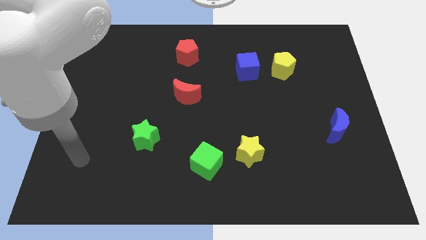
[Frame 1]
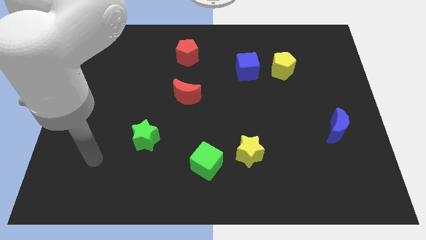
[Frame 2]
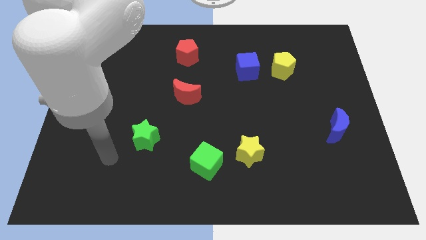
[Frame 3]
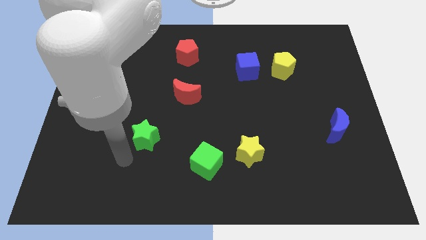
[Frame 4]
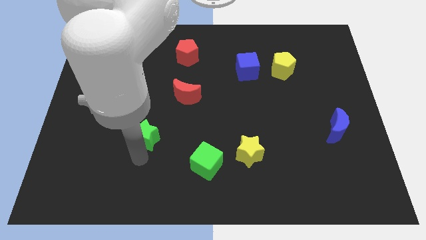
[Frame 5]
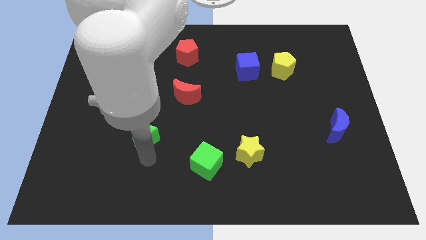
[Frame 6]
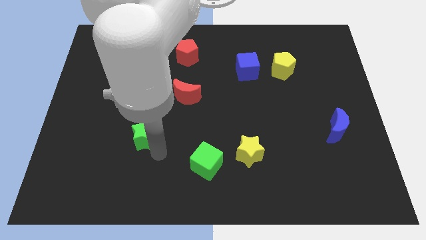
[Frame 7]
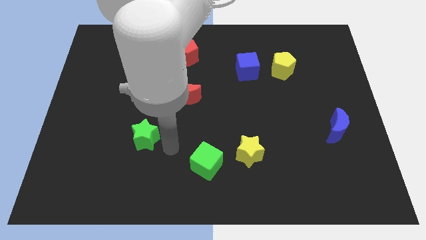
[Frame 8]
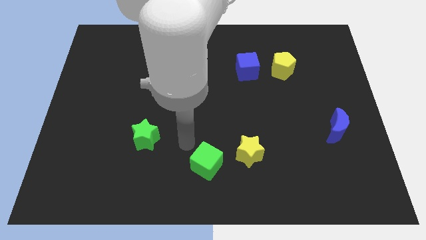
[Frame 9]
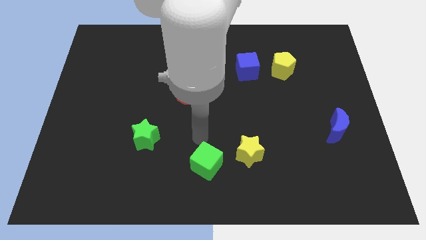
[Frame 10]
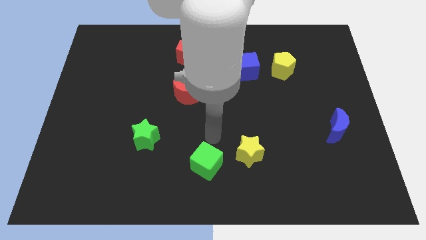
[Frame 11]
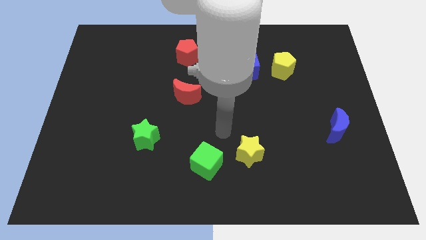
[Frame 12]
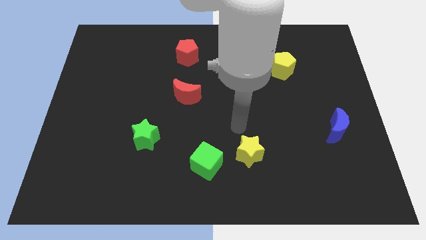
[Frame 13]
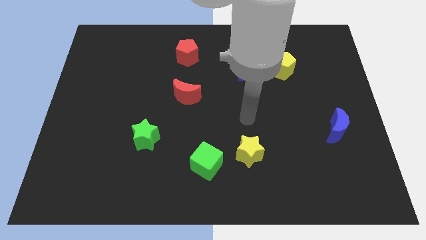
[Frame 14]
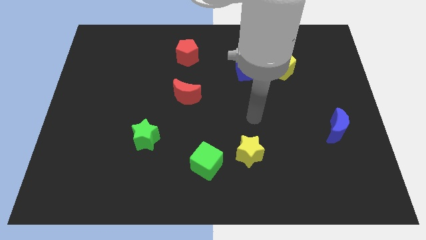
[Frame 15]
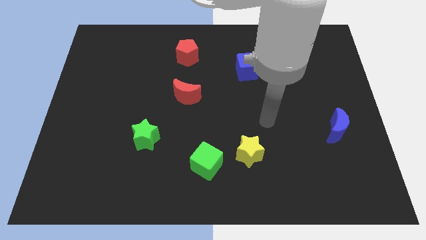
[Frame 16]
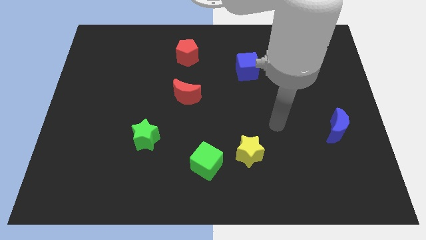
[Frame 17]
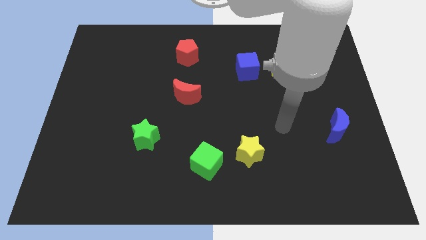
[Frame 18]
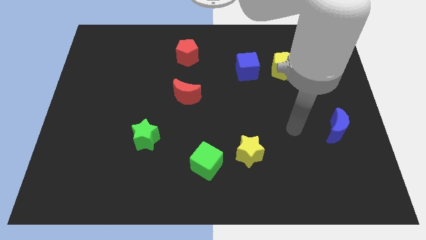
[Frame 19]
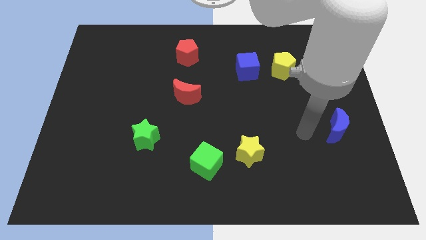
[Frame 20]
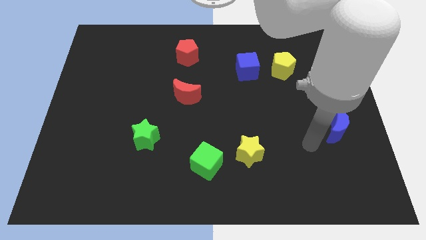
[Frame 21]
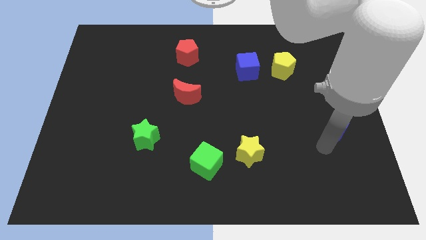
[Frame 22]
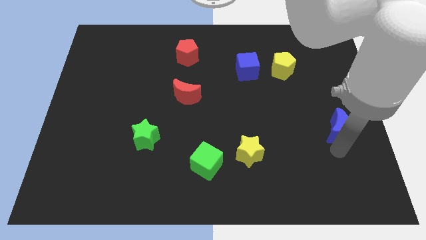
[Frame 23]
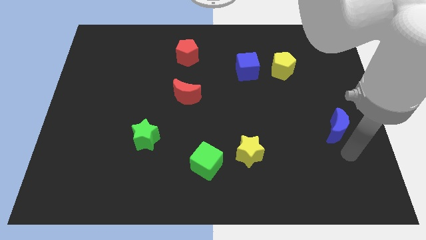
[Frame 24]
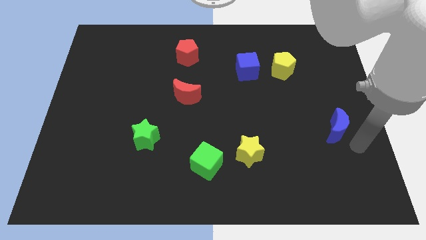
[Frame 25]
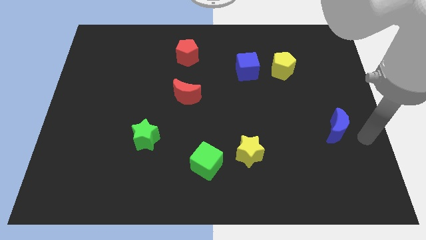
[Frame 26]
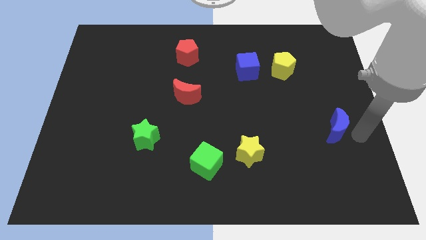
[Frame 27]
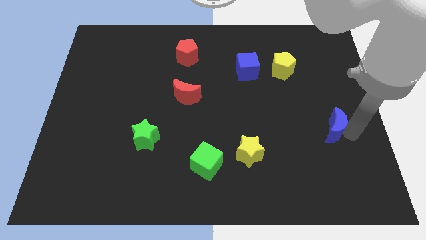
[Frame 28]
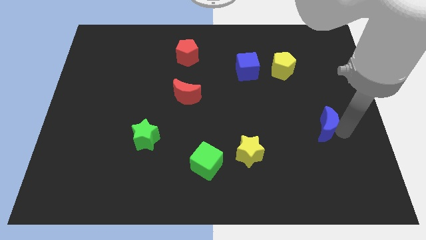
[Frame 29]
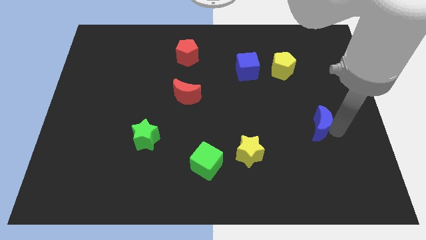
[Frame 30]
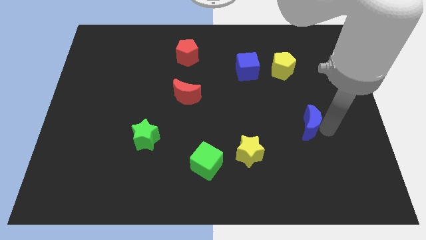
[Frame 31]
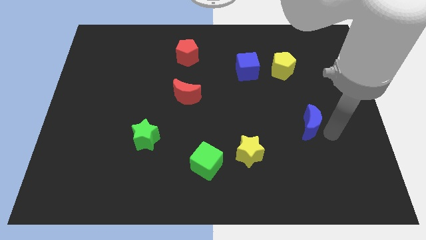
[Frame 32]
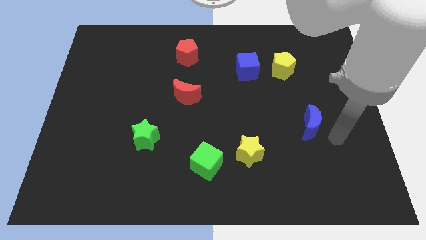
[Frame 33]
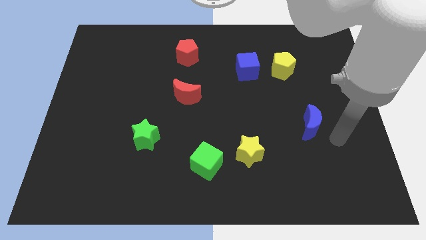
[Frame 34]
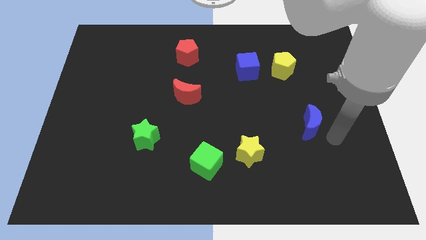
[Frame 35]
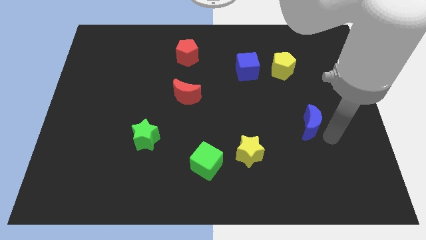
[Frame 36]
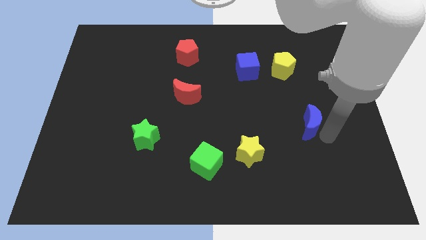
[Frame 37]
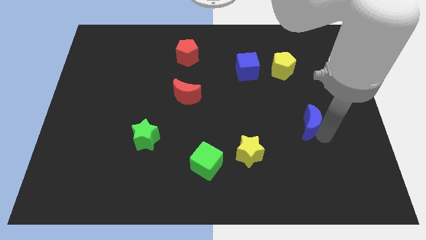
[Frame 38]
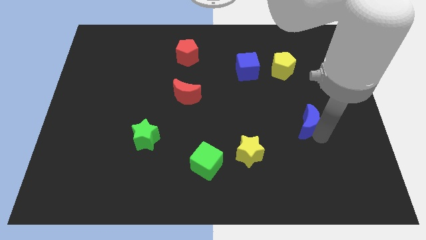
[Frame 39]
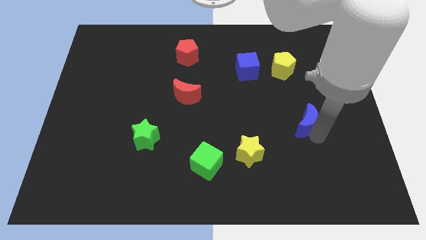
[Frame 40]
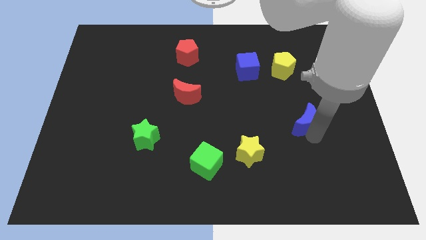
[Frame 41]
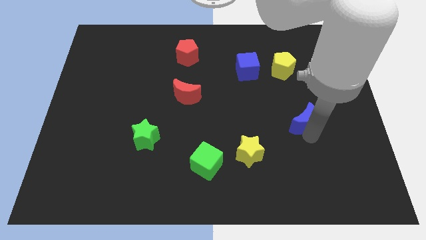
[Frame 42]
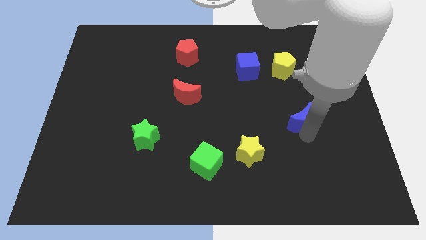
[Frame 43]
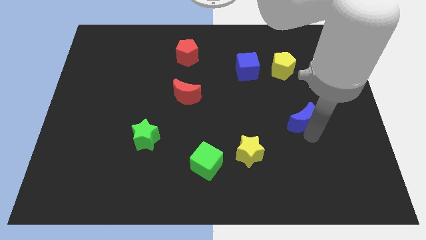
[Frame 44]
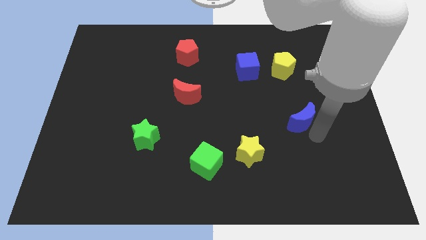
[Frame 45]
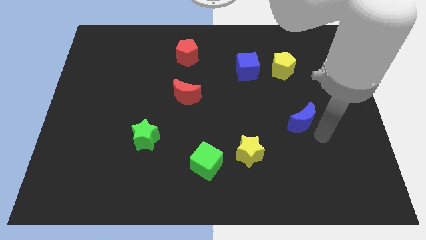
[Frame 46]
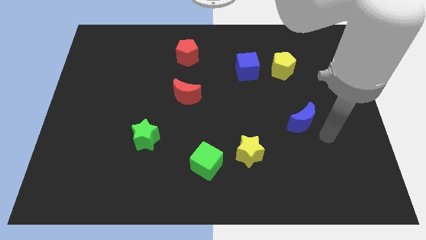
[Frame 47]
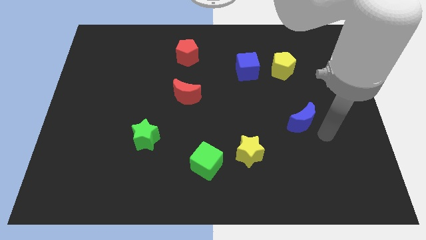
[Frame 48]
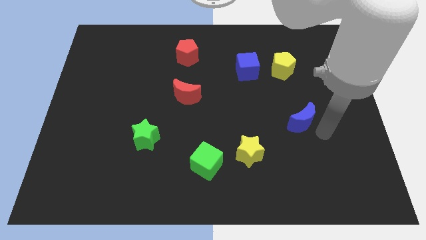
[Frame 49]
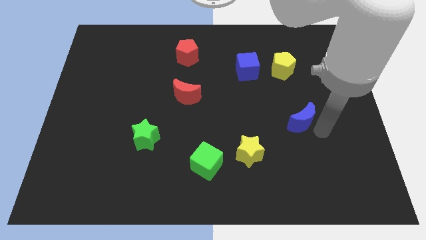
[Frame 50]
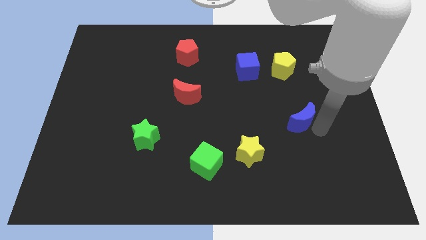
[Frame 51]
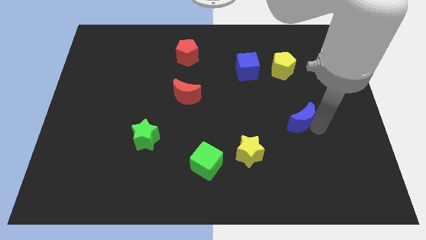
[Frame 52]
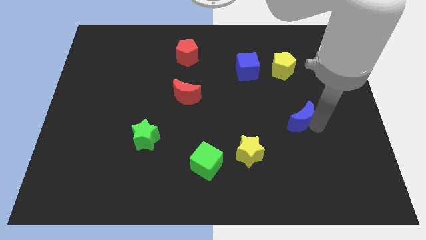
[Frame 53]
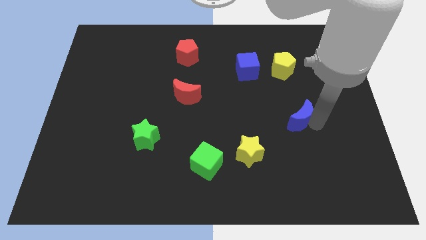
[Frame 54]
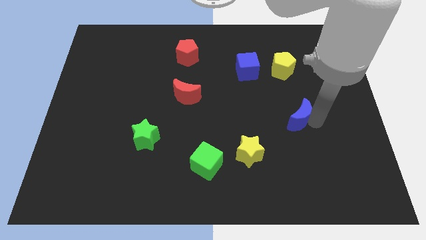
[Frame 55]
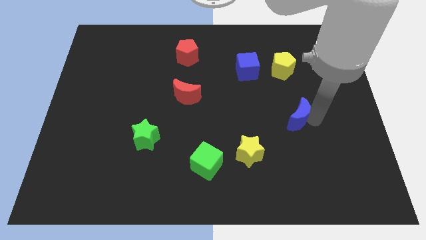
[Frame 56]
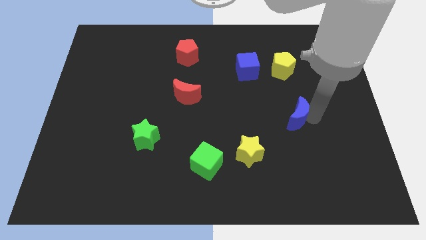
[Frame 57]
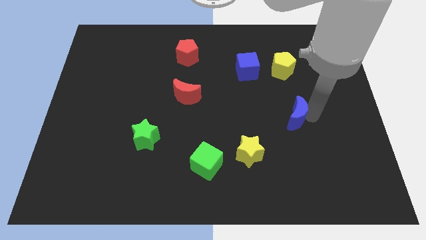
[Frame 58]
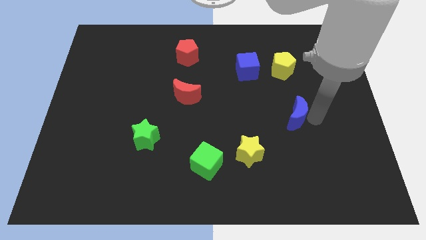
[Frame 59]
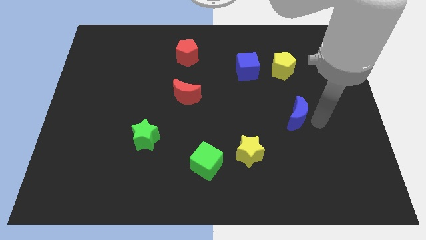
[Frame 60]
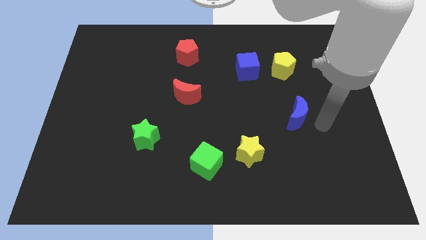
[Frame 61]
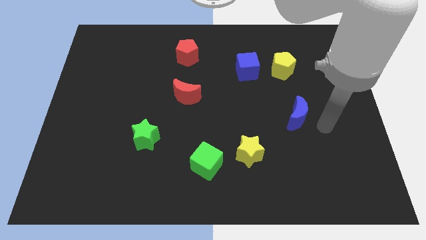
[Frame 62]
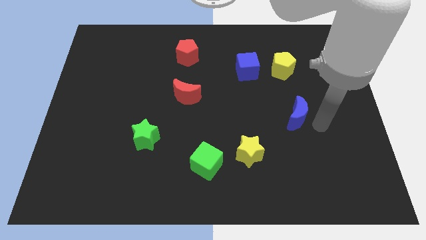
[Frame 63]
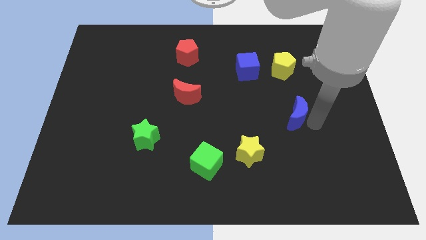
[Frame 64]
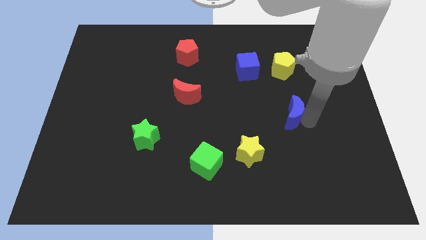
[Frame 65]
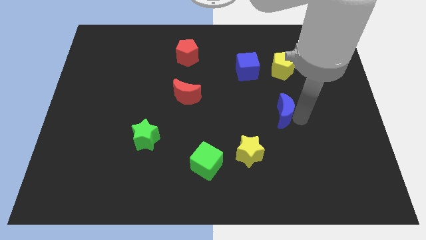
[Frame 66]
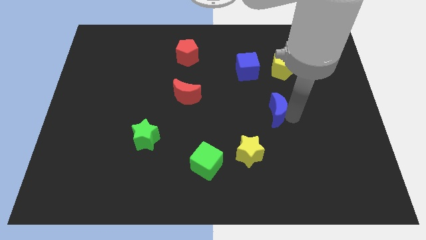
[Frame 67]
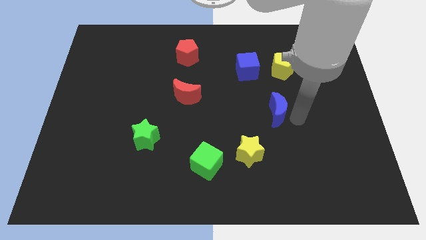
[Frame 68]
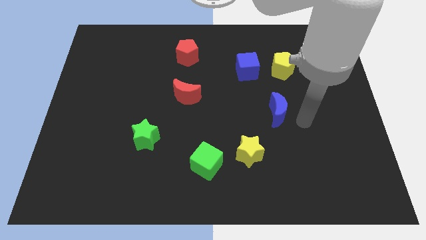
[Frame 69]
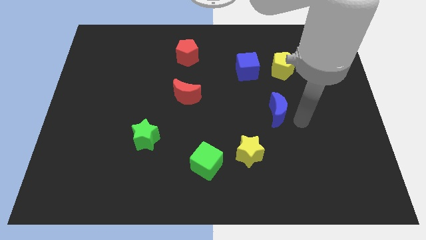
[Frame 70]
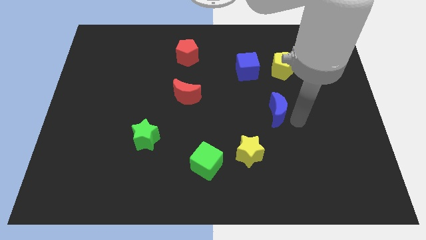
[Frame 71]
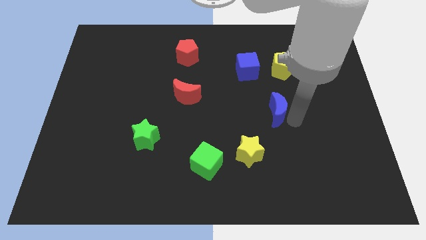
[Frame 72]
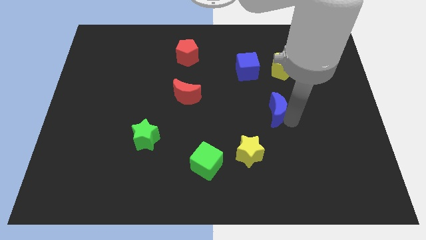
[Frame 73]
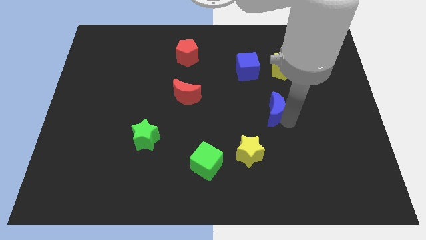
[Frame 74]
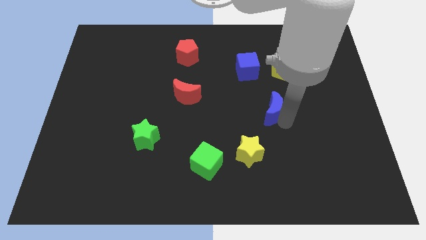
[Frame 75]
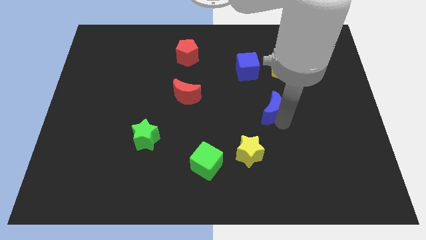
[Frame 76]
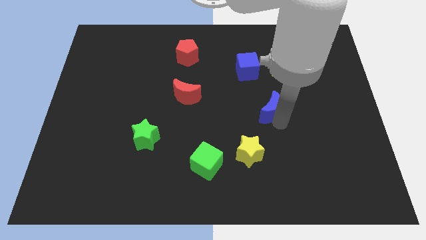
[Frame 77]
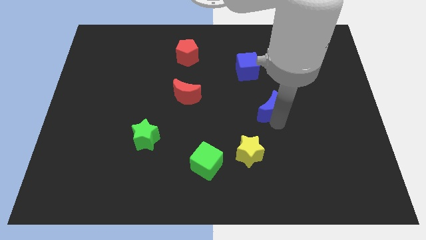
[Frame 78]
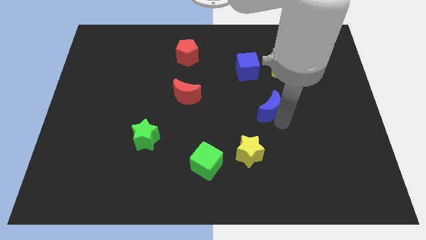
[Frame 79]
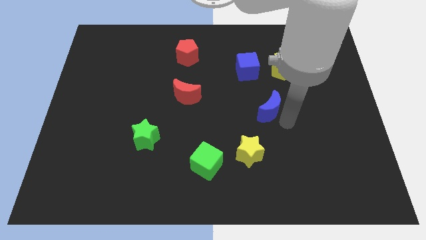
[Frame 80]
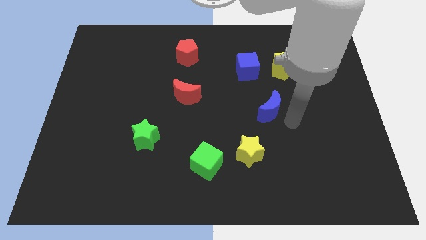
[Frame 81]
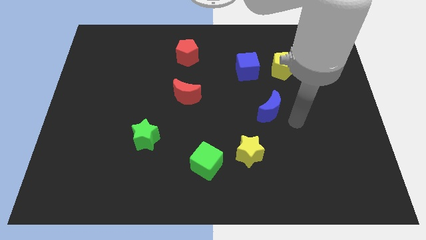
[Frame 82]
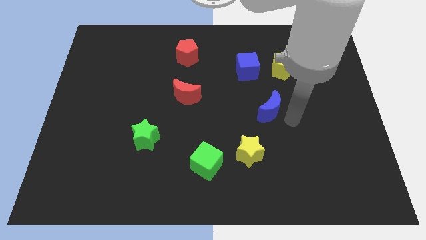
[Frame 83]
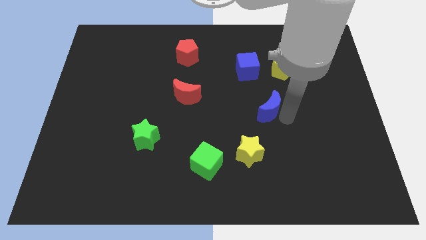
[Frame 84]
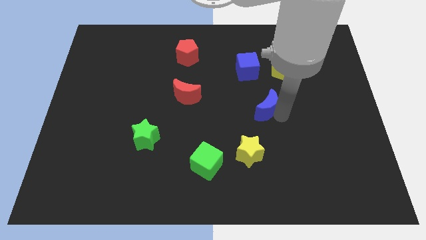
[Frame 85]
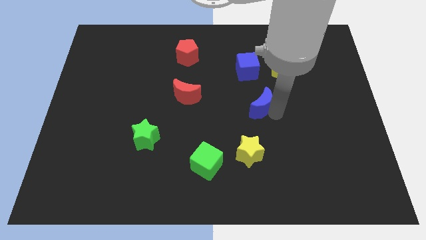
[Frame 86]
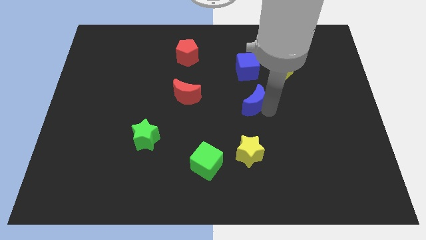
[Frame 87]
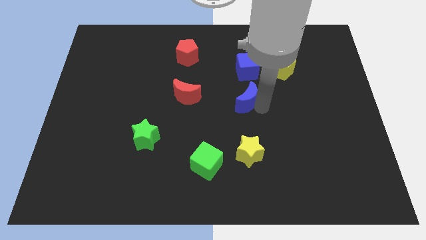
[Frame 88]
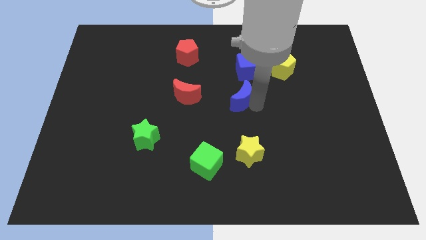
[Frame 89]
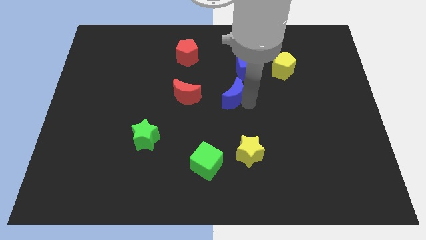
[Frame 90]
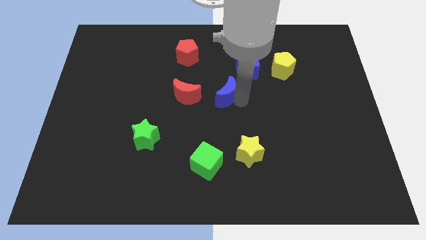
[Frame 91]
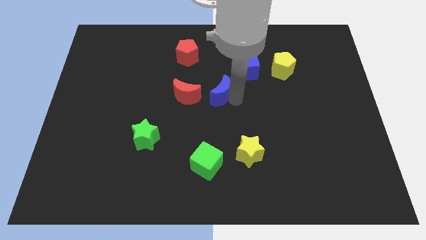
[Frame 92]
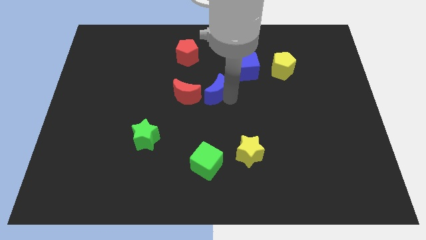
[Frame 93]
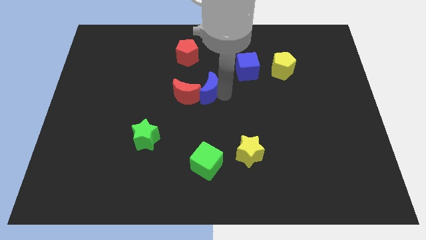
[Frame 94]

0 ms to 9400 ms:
move the blue moon next to the red moon
